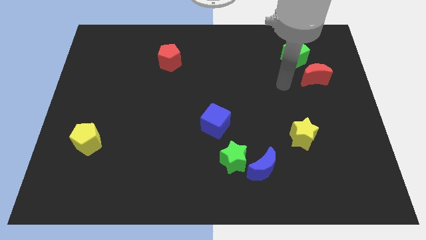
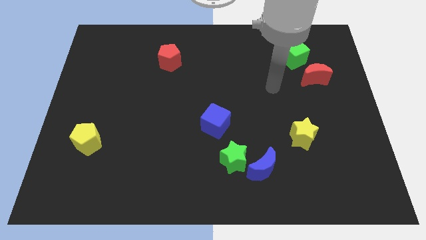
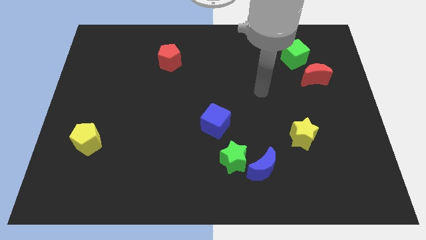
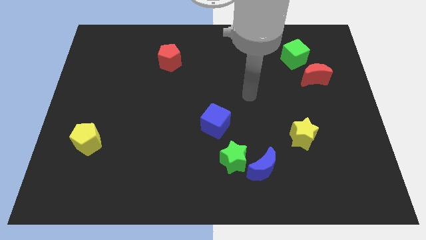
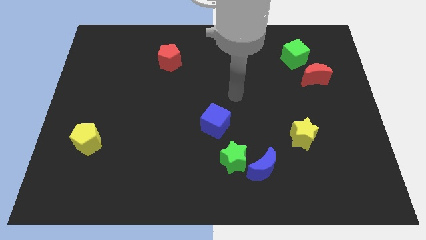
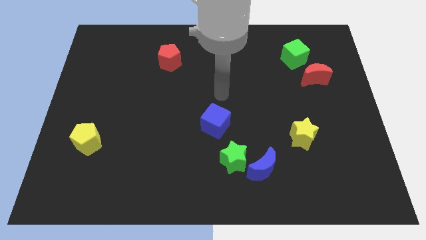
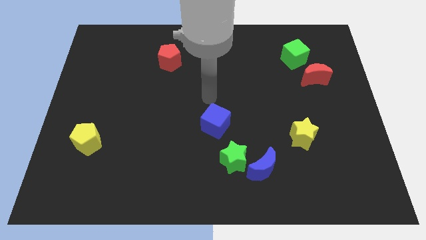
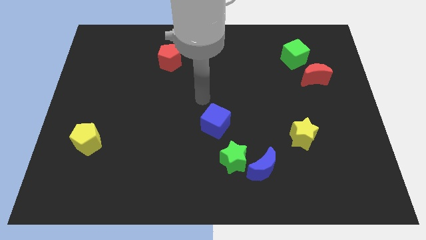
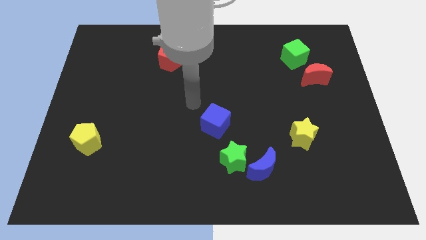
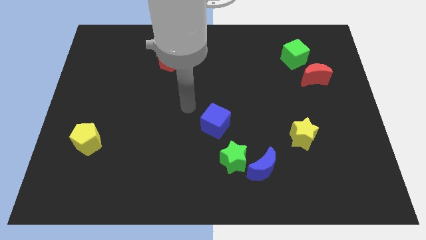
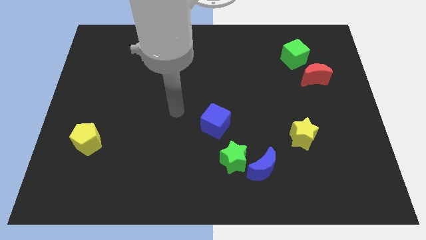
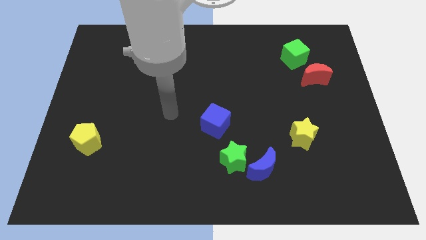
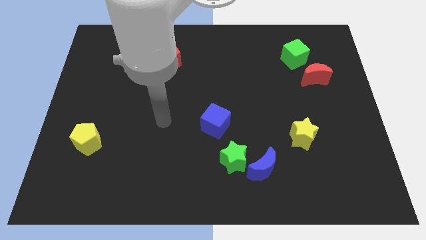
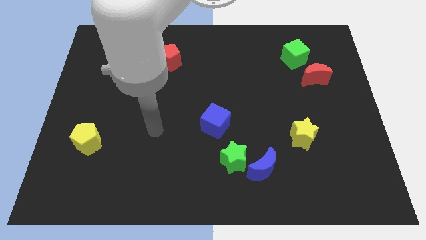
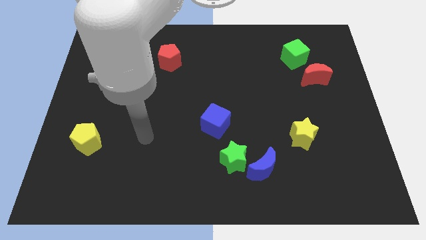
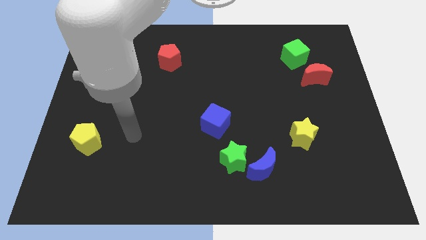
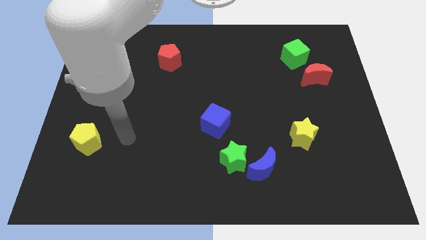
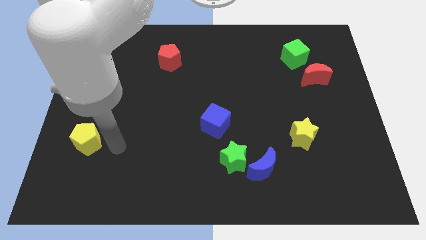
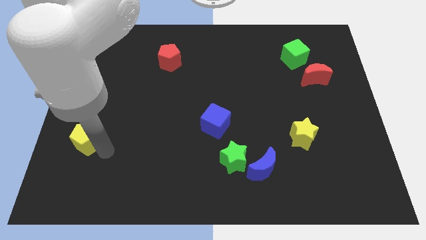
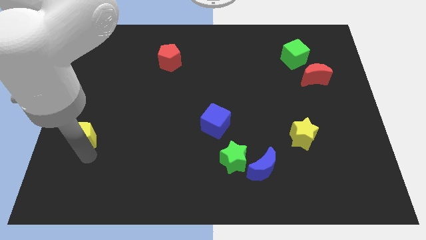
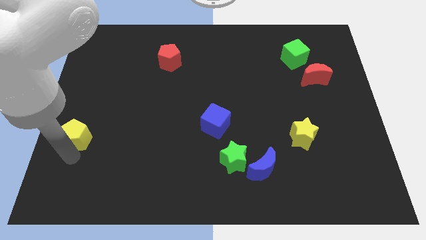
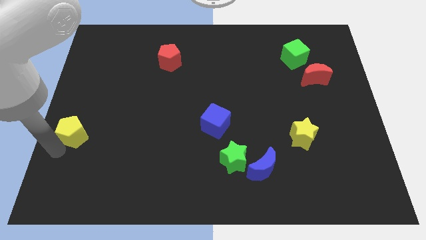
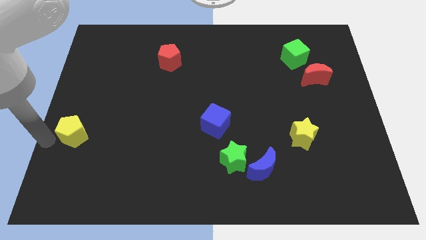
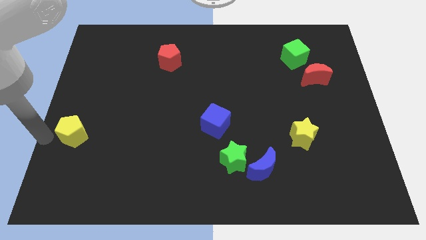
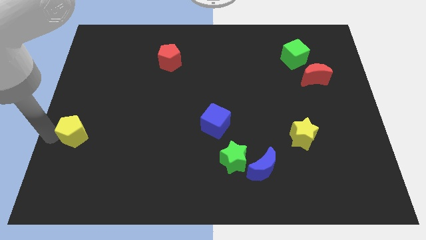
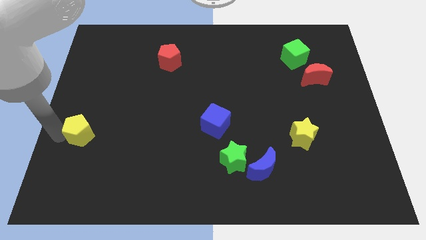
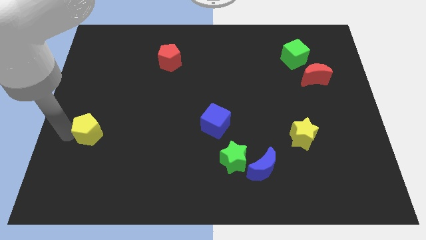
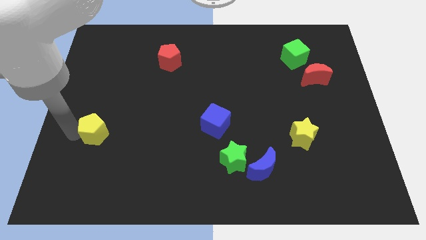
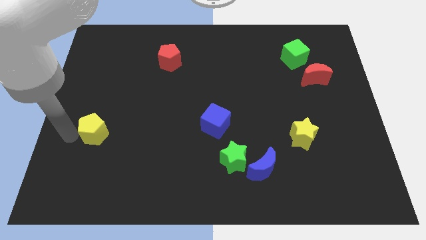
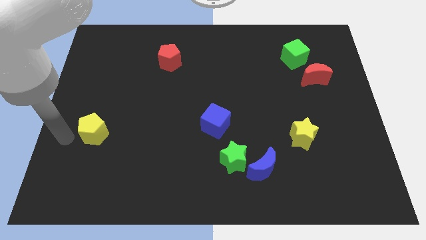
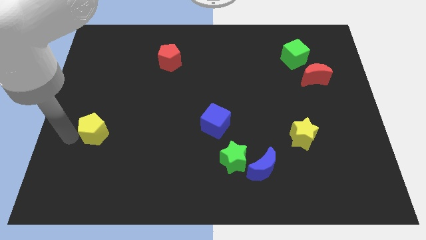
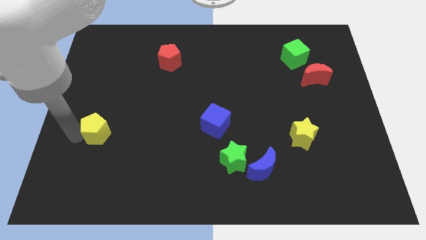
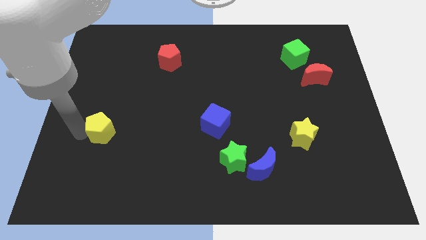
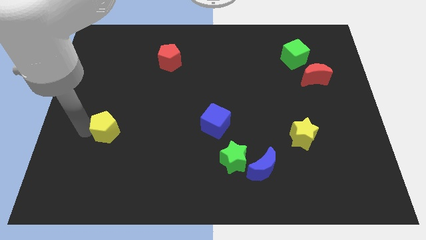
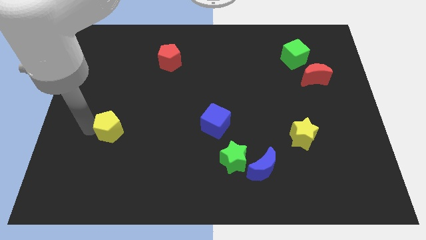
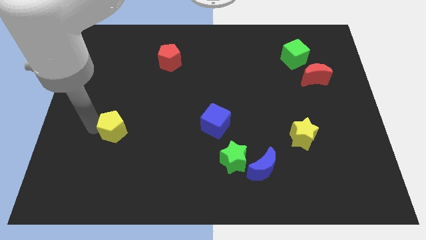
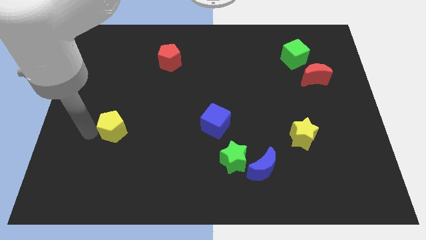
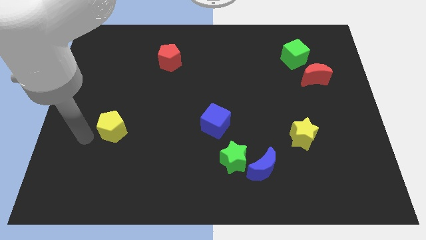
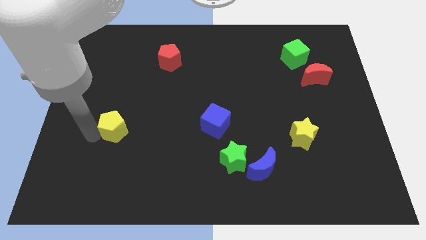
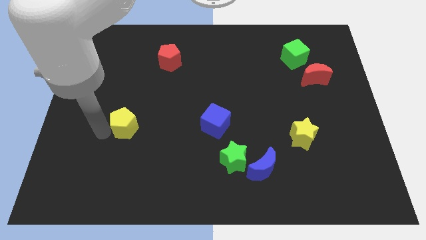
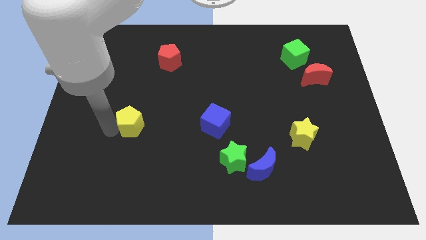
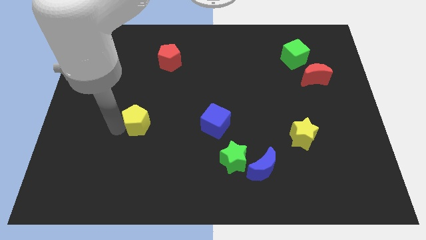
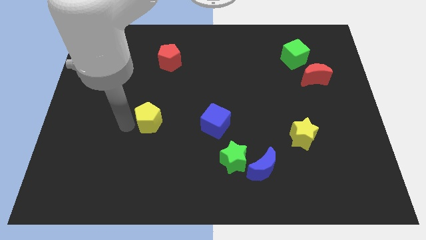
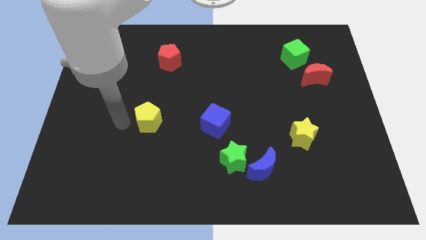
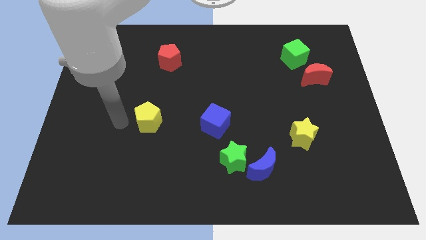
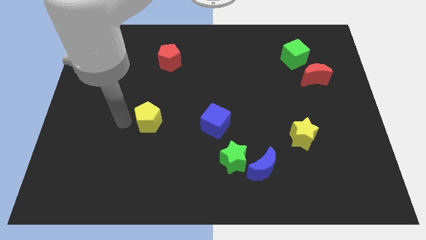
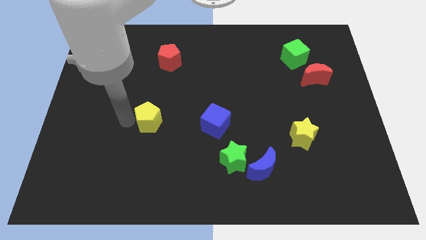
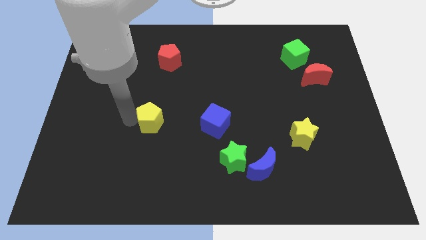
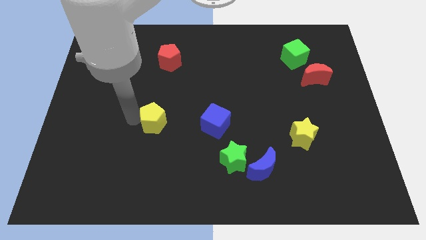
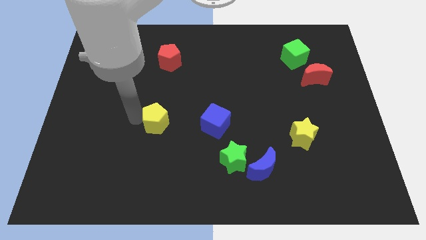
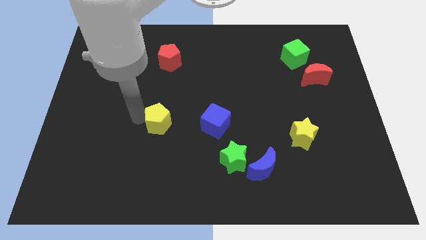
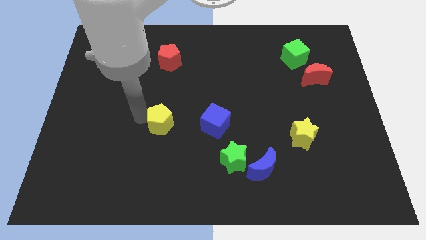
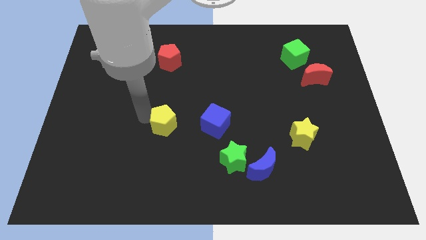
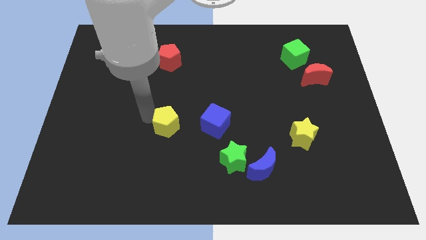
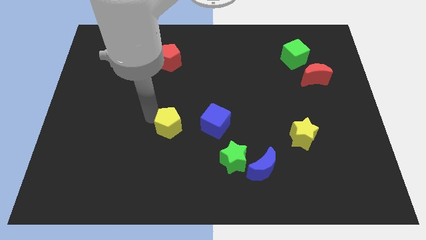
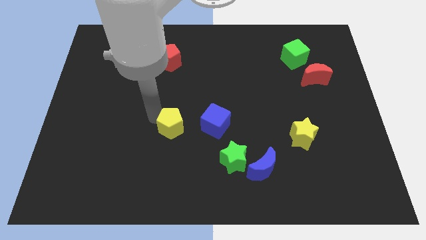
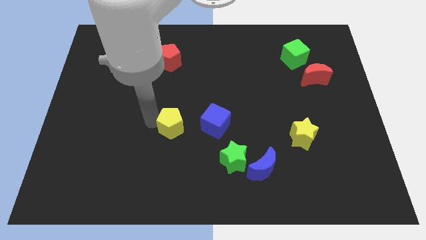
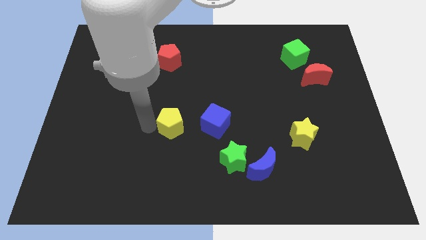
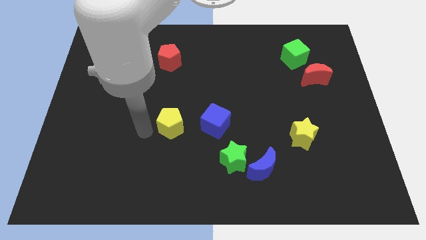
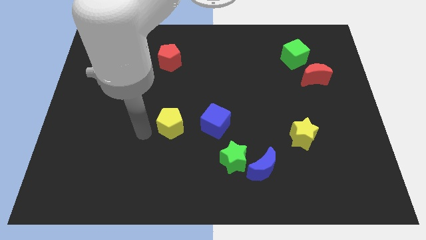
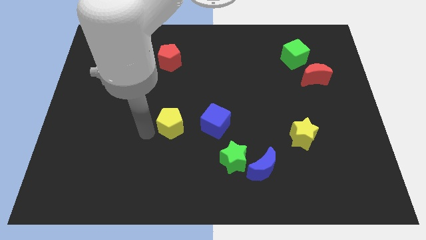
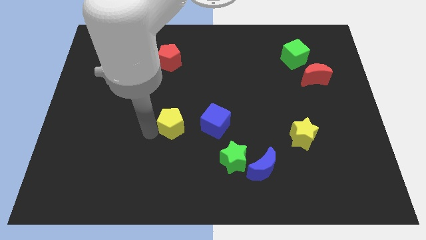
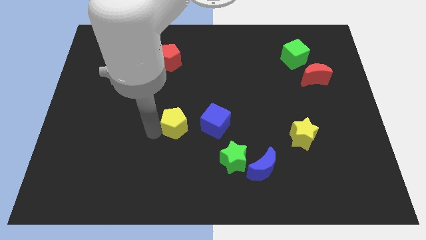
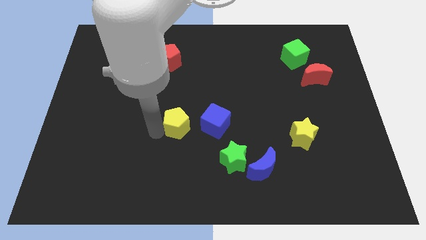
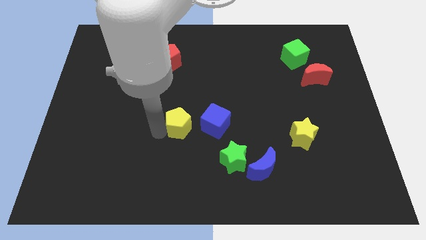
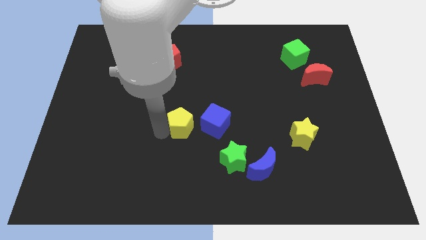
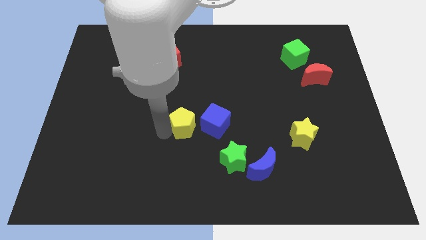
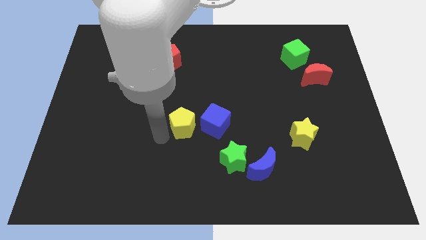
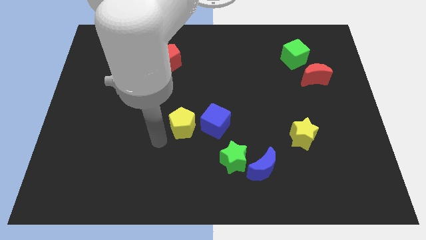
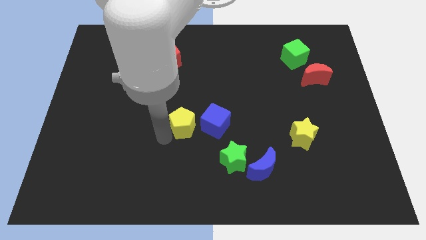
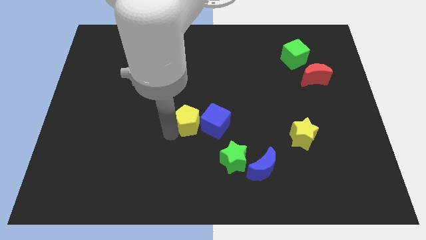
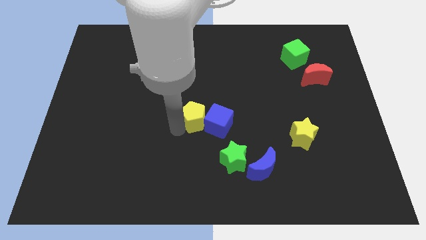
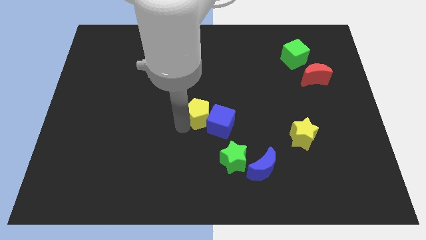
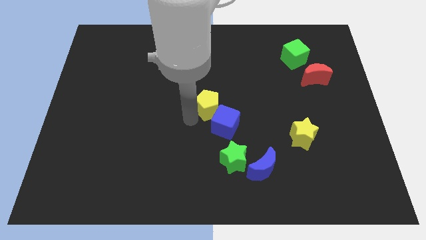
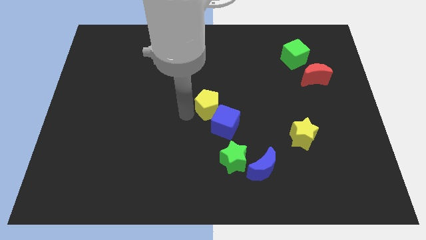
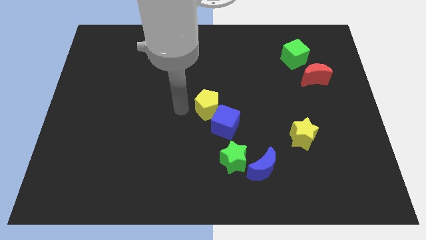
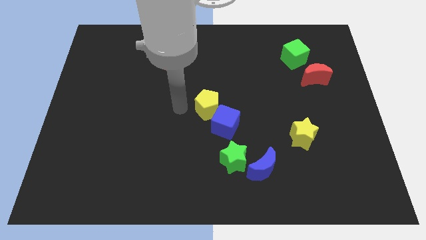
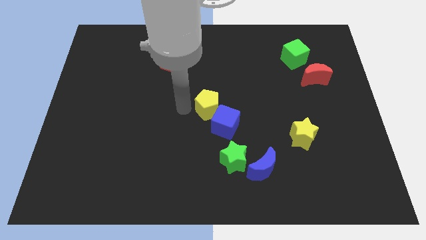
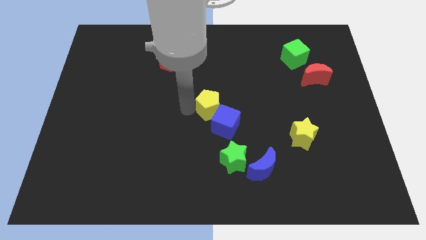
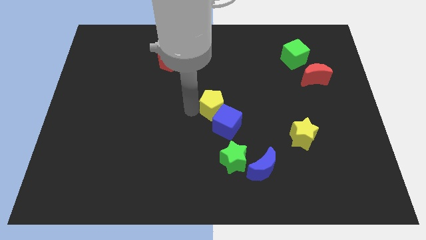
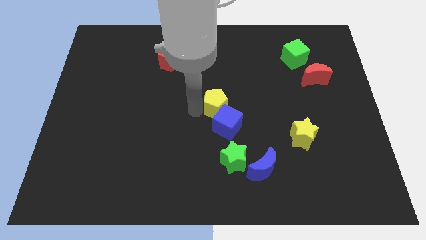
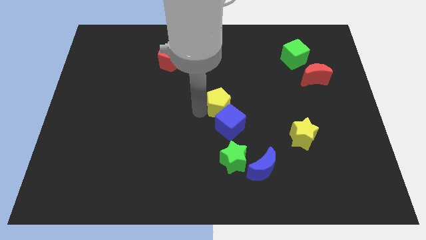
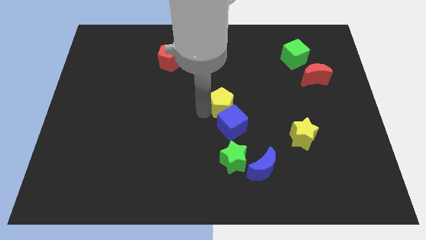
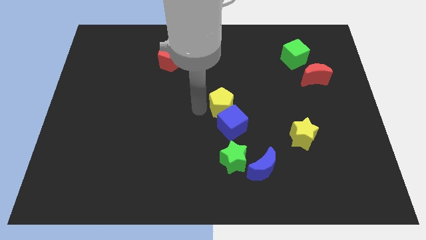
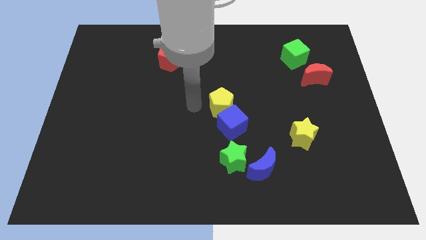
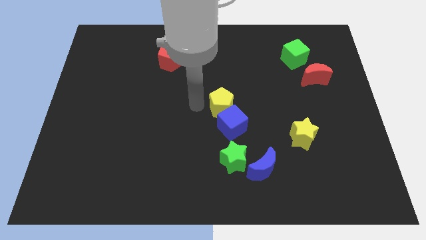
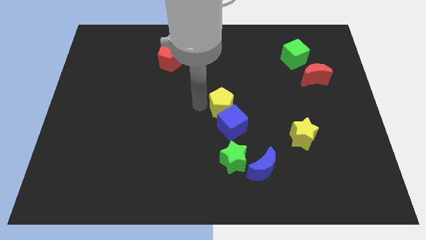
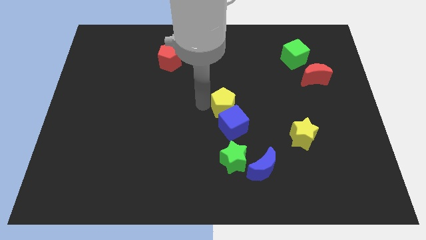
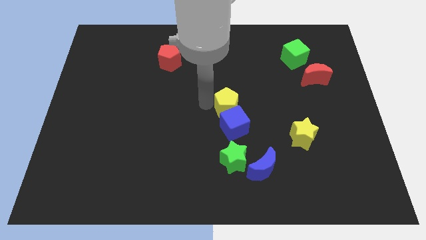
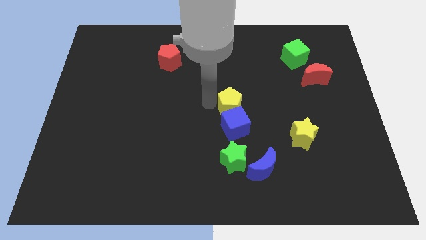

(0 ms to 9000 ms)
slide the yellow pentagon to the top right side of the blue cube
